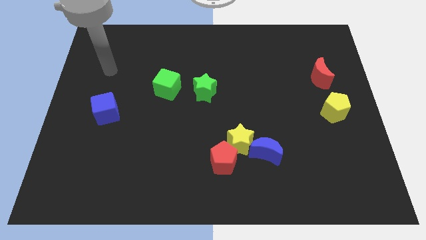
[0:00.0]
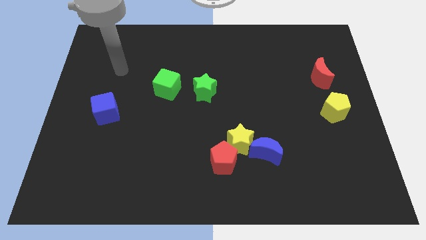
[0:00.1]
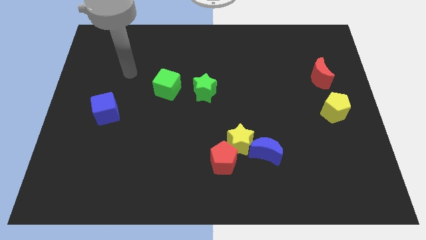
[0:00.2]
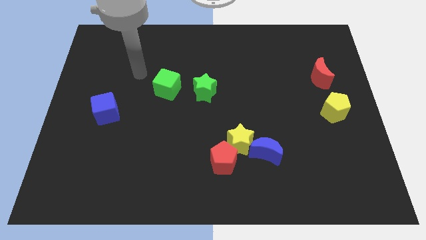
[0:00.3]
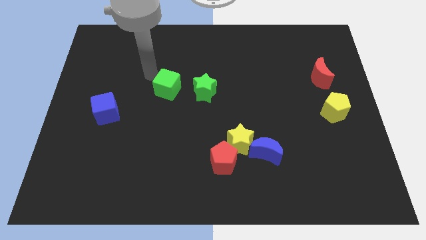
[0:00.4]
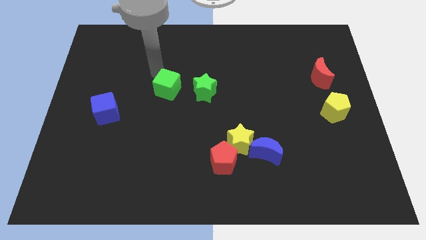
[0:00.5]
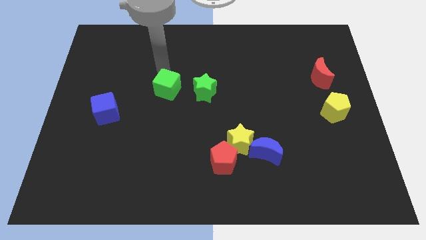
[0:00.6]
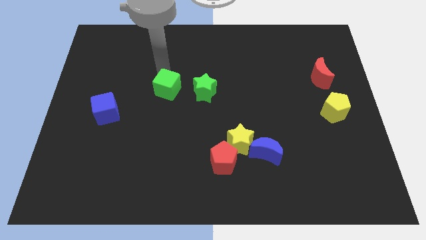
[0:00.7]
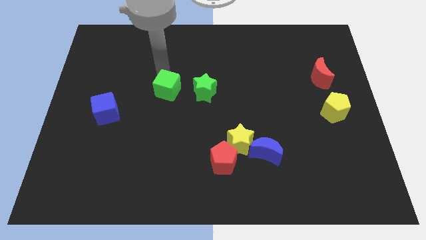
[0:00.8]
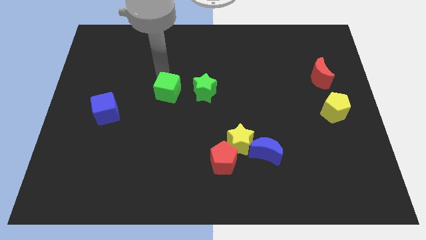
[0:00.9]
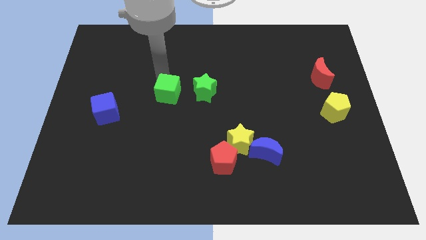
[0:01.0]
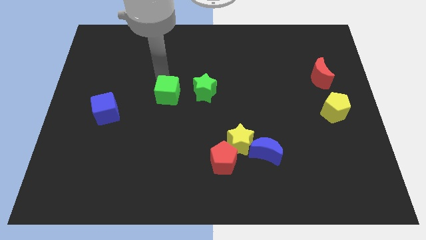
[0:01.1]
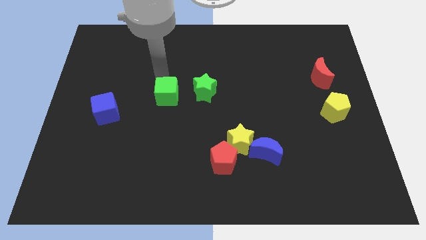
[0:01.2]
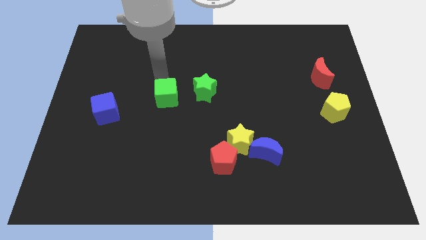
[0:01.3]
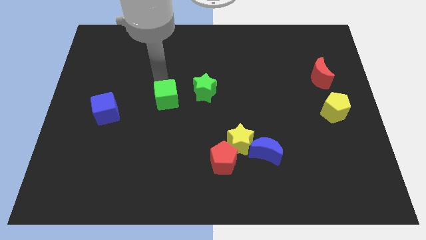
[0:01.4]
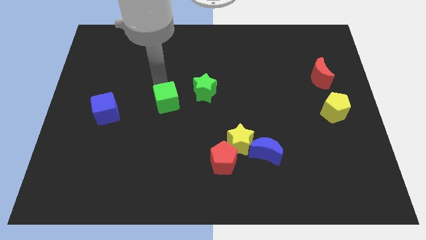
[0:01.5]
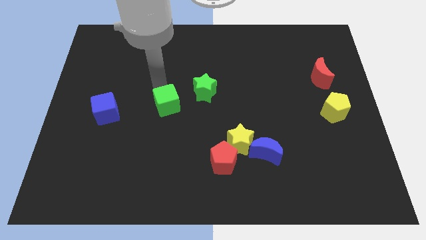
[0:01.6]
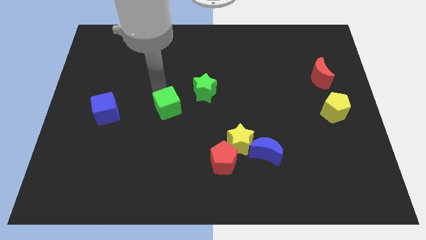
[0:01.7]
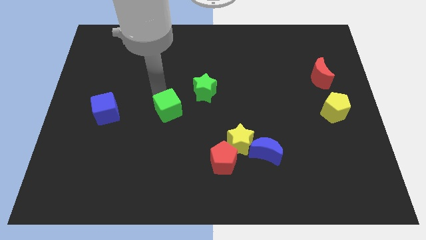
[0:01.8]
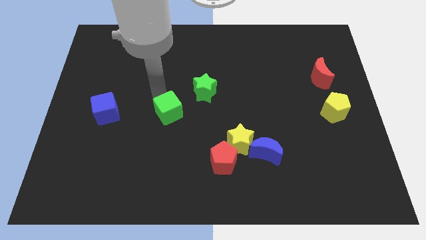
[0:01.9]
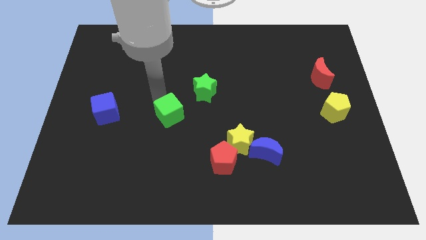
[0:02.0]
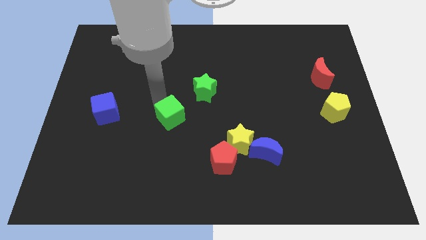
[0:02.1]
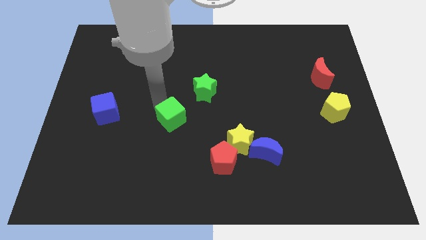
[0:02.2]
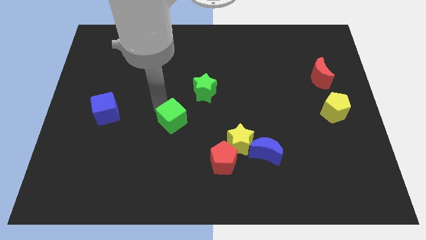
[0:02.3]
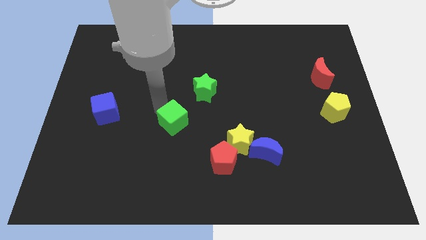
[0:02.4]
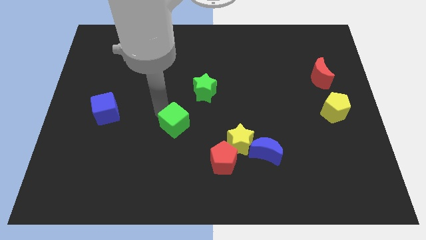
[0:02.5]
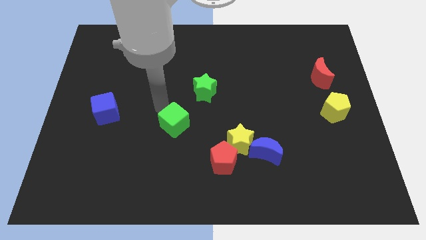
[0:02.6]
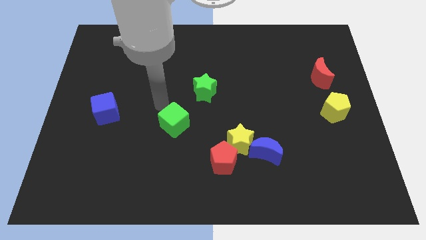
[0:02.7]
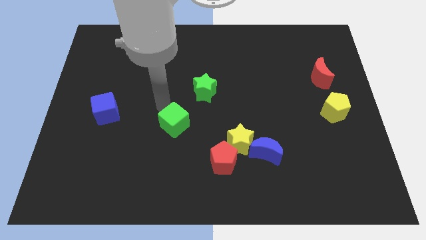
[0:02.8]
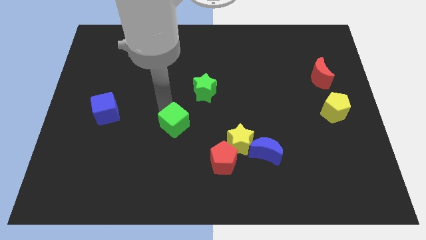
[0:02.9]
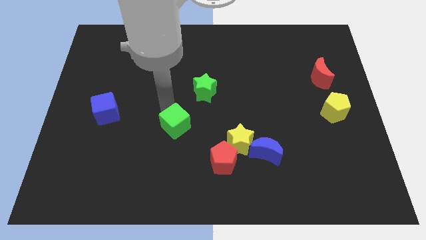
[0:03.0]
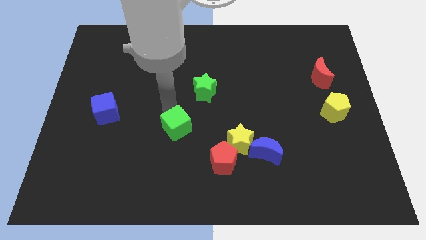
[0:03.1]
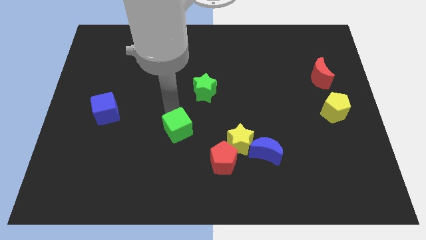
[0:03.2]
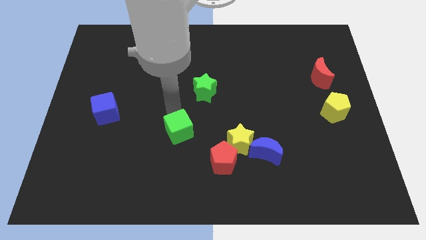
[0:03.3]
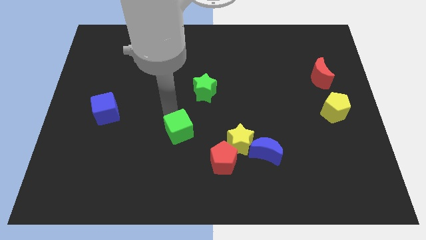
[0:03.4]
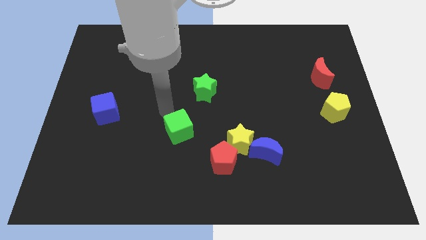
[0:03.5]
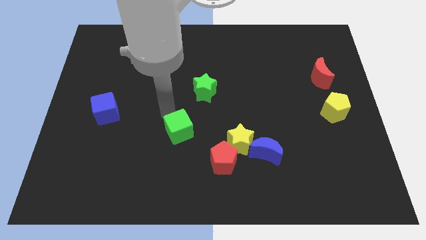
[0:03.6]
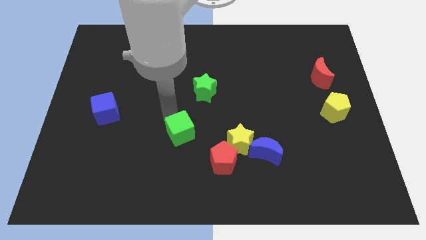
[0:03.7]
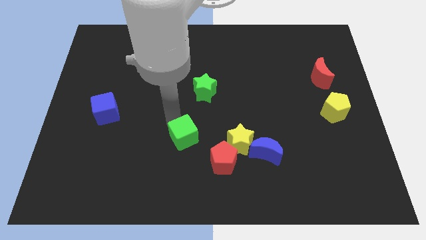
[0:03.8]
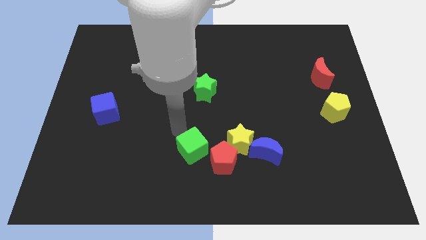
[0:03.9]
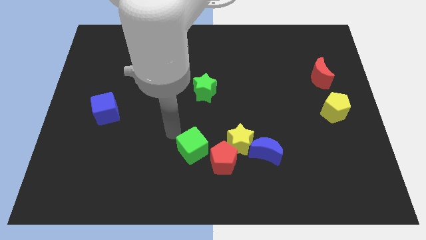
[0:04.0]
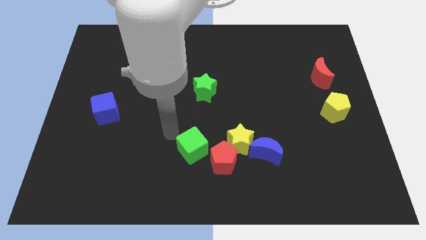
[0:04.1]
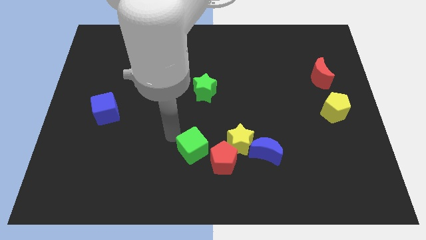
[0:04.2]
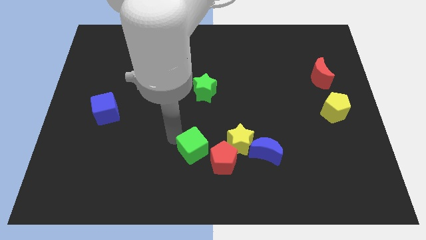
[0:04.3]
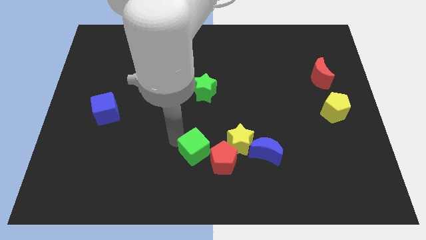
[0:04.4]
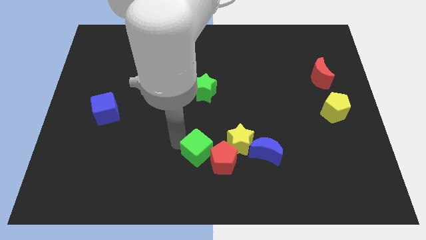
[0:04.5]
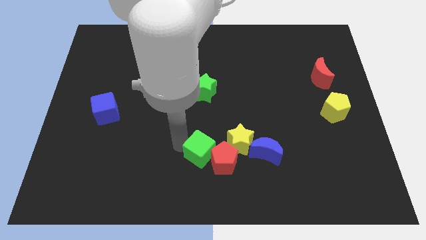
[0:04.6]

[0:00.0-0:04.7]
push the green cube diagonally down and to the left of the yellow star

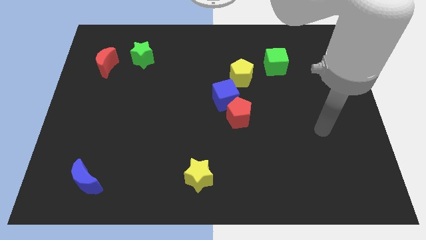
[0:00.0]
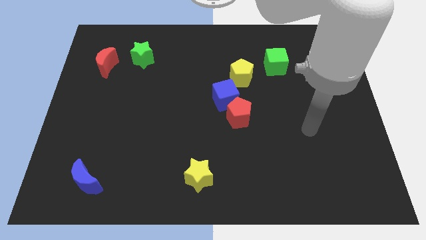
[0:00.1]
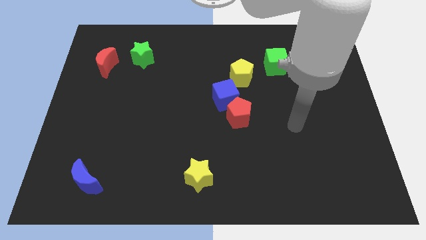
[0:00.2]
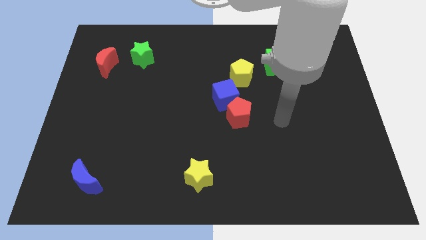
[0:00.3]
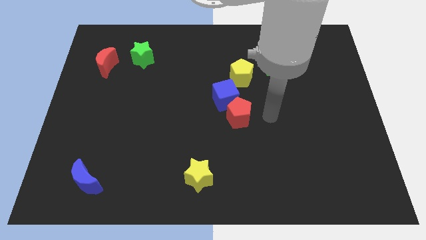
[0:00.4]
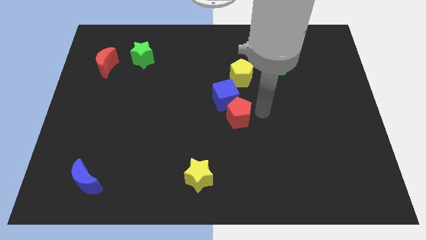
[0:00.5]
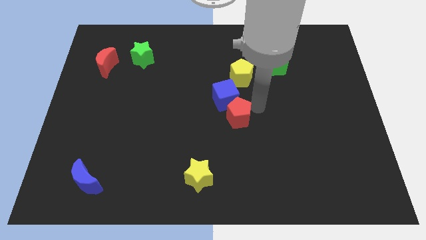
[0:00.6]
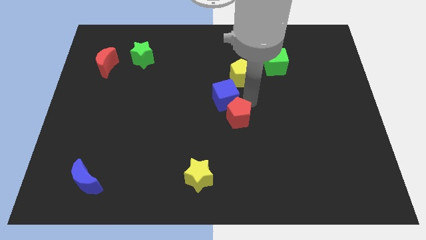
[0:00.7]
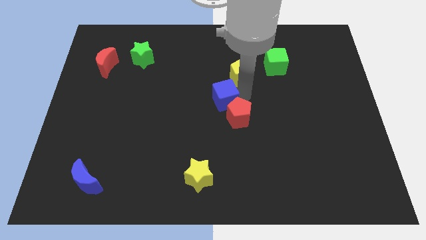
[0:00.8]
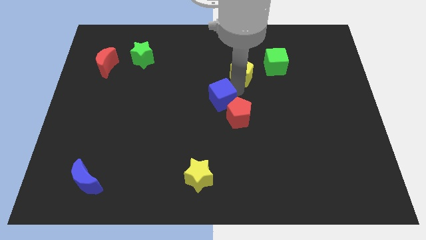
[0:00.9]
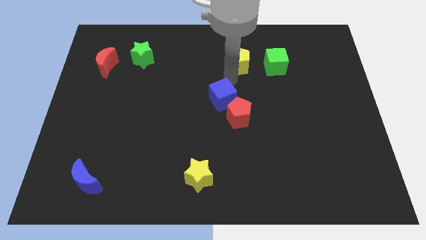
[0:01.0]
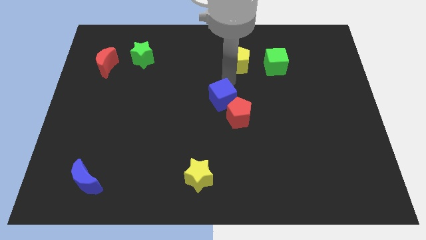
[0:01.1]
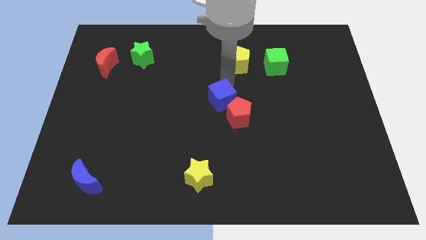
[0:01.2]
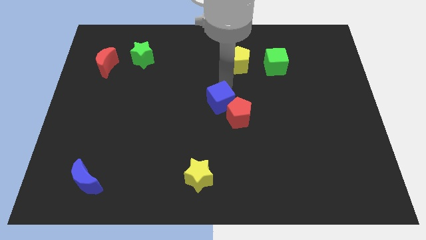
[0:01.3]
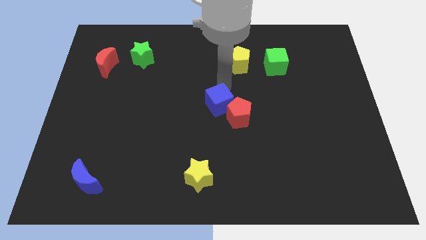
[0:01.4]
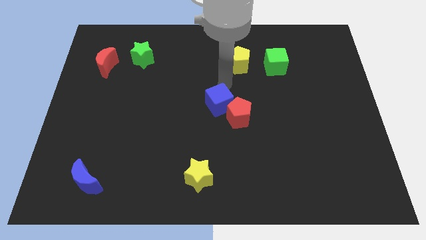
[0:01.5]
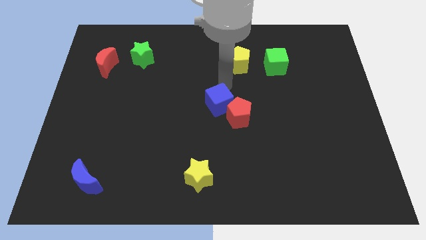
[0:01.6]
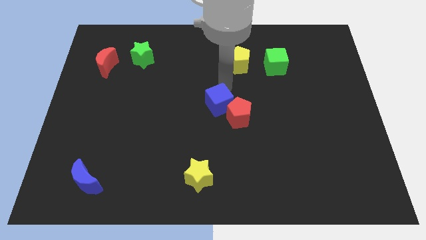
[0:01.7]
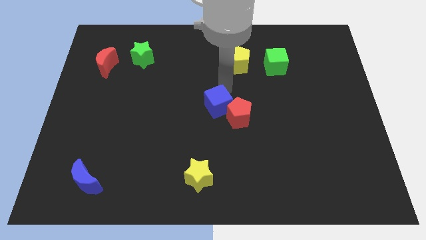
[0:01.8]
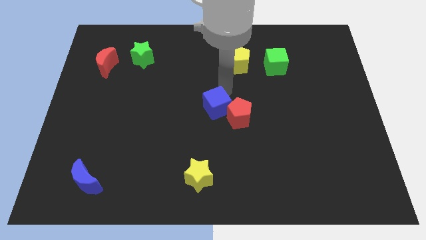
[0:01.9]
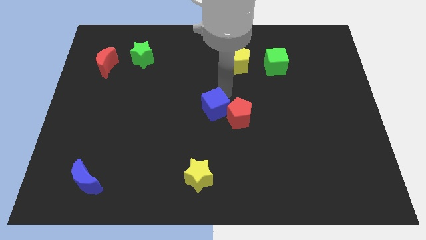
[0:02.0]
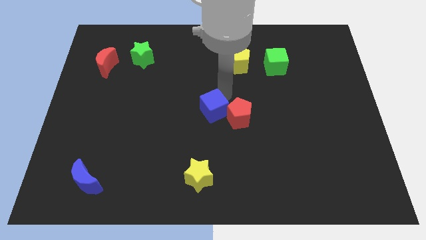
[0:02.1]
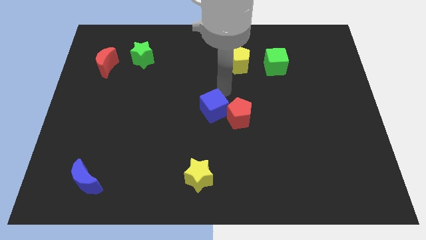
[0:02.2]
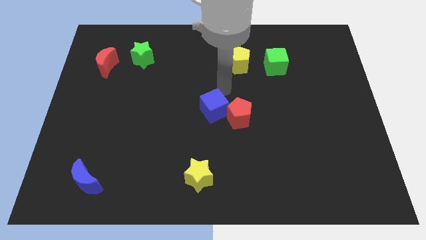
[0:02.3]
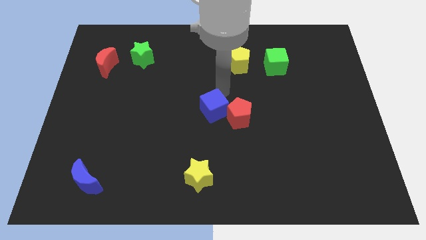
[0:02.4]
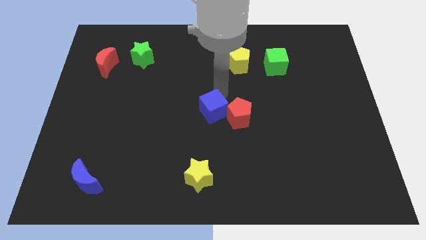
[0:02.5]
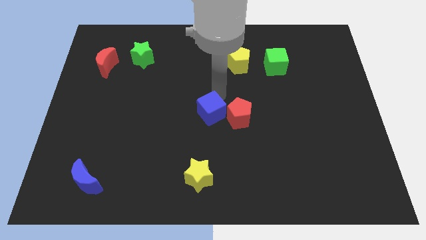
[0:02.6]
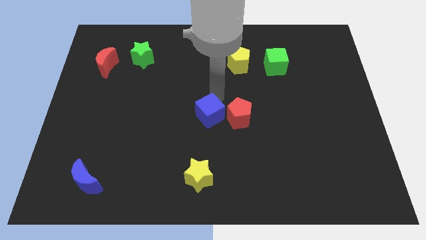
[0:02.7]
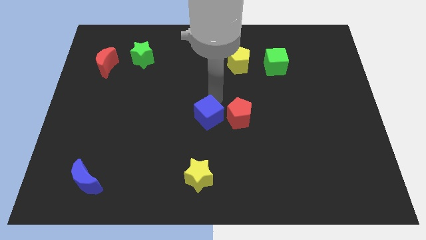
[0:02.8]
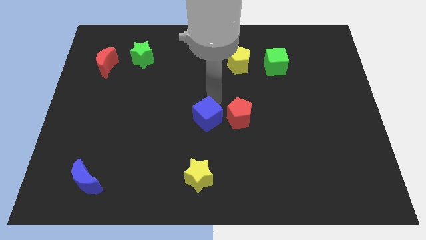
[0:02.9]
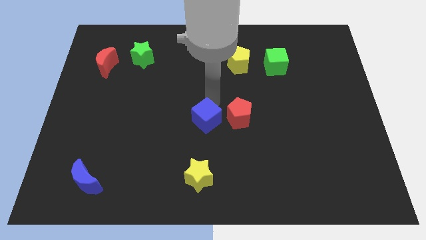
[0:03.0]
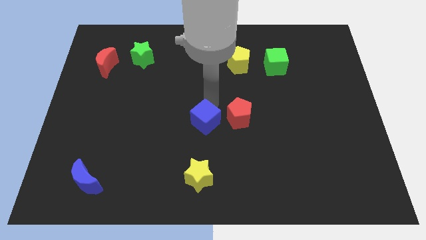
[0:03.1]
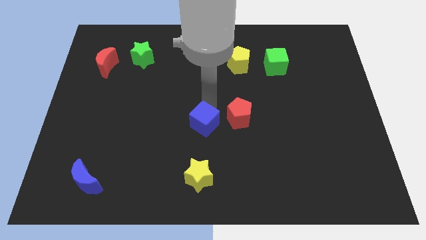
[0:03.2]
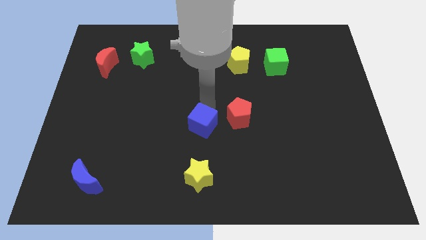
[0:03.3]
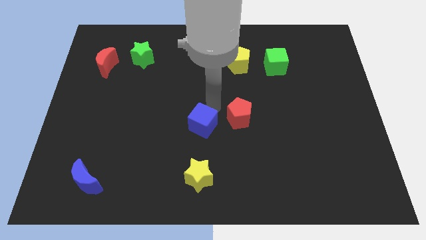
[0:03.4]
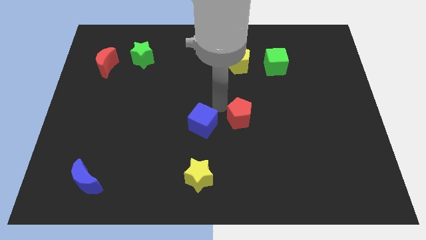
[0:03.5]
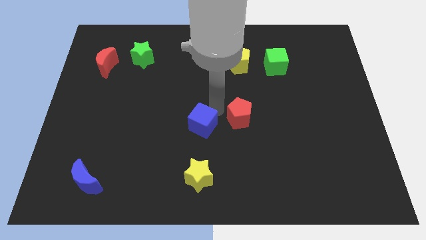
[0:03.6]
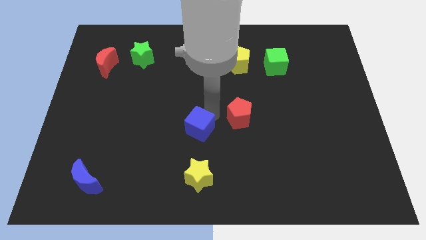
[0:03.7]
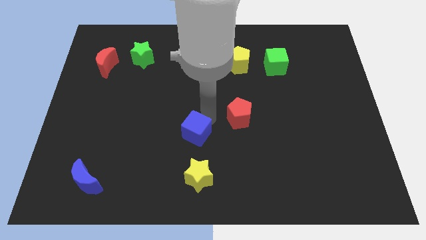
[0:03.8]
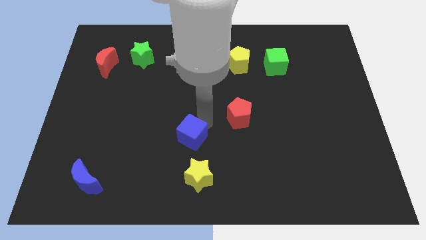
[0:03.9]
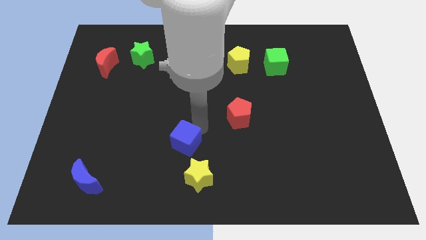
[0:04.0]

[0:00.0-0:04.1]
push the blue cube to the top left side of the yellow star
